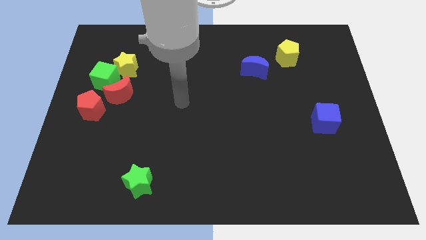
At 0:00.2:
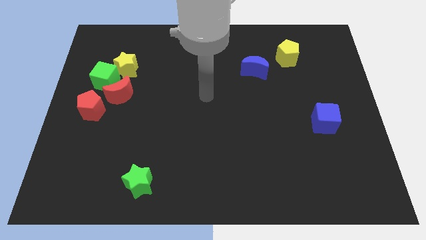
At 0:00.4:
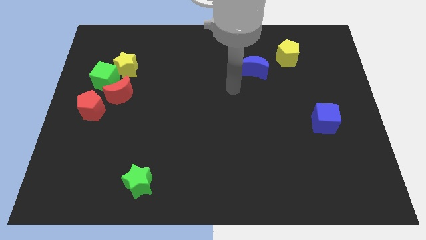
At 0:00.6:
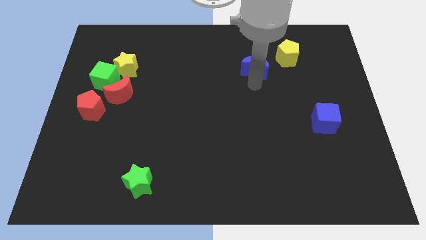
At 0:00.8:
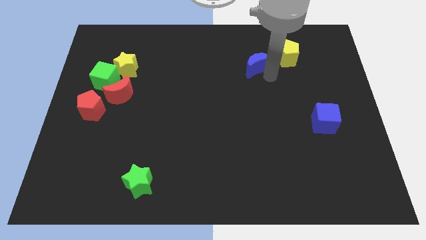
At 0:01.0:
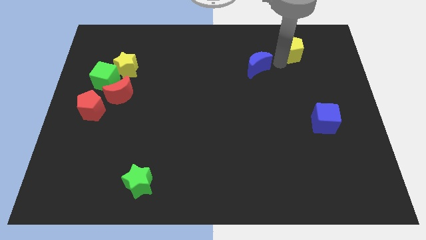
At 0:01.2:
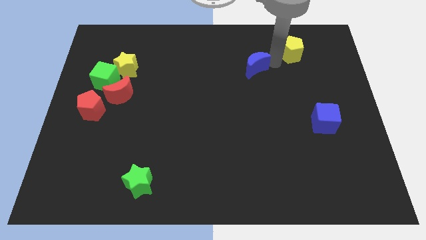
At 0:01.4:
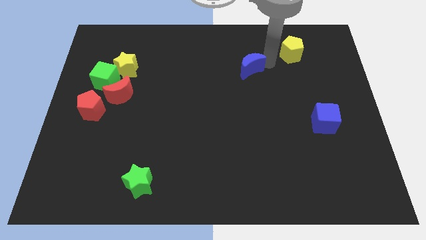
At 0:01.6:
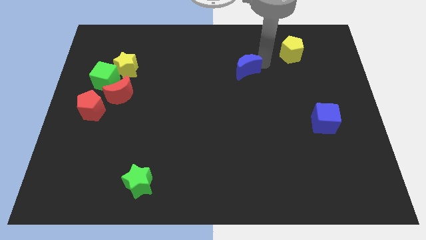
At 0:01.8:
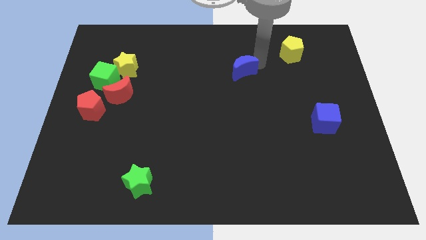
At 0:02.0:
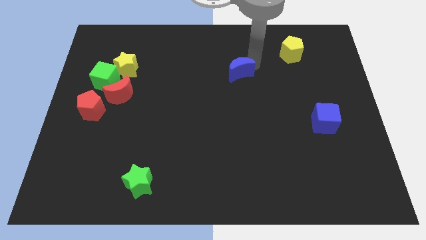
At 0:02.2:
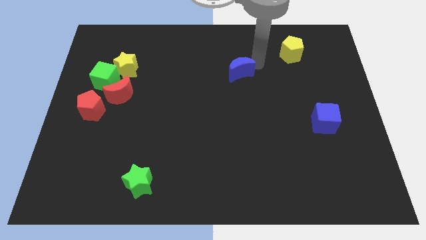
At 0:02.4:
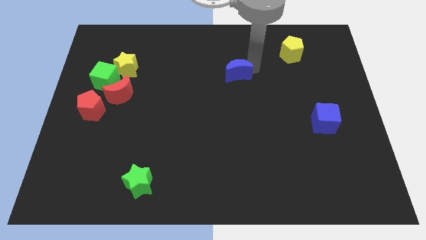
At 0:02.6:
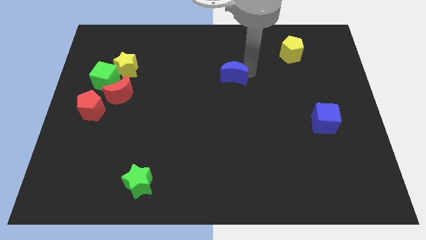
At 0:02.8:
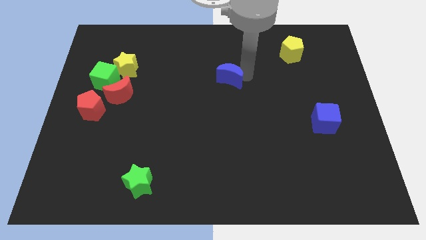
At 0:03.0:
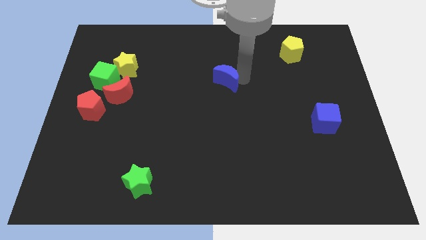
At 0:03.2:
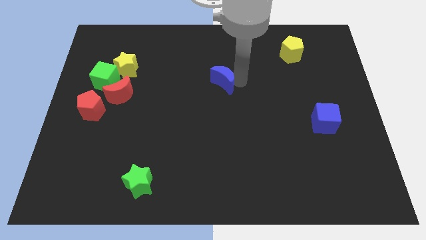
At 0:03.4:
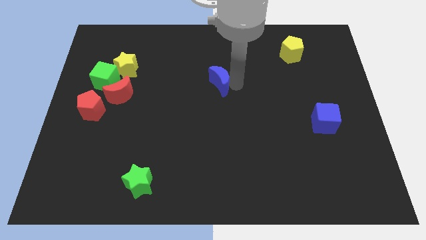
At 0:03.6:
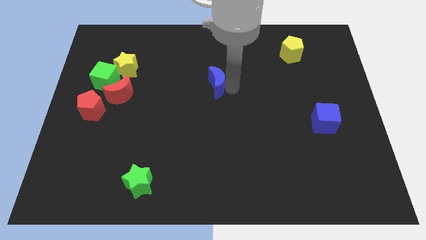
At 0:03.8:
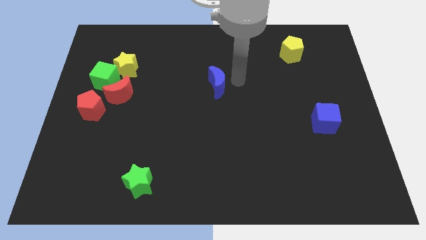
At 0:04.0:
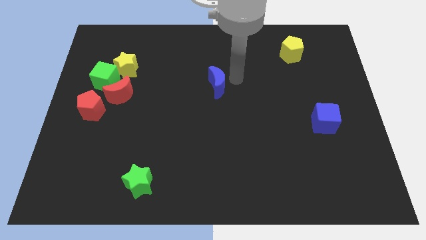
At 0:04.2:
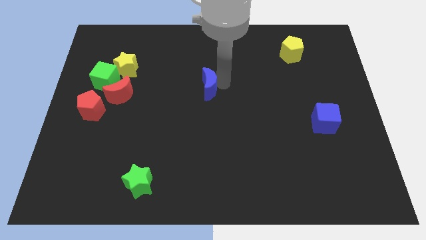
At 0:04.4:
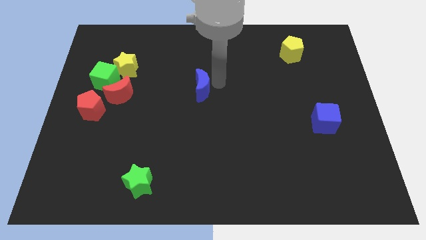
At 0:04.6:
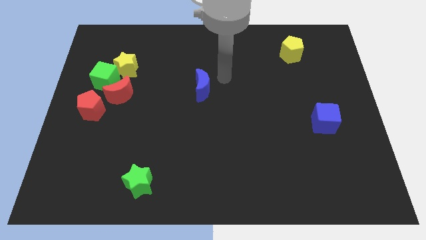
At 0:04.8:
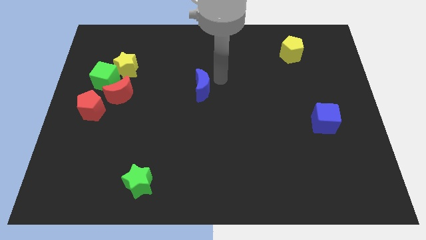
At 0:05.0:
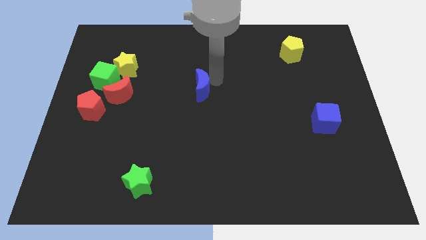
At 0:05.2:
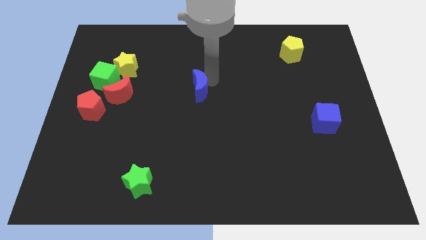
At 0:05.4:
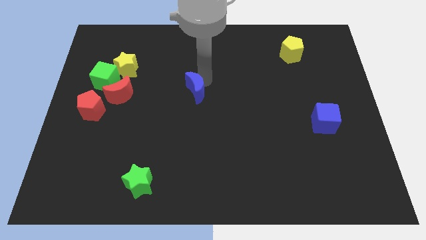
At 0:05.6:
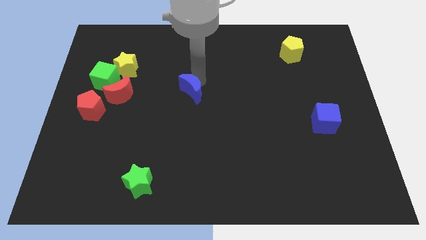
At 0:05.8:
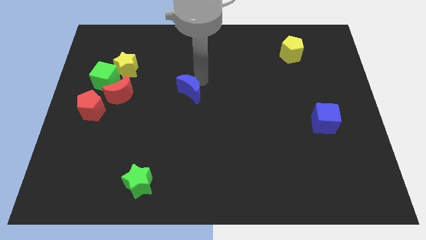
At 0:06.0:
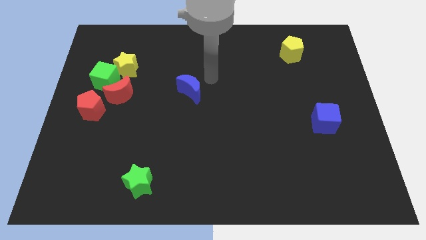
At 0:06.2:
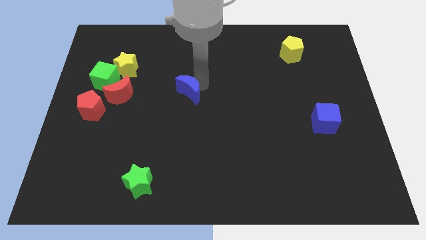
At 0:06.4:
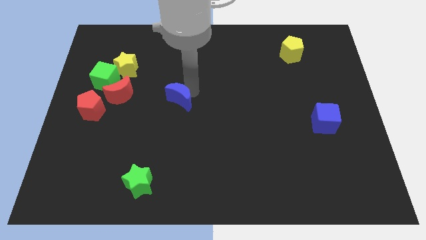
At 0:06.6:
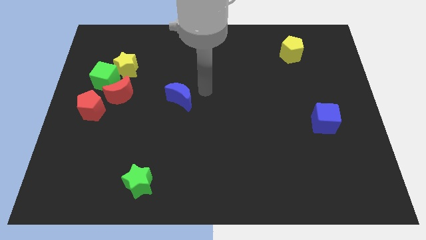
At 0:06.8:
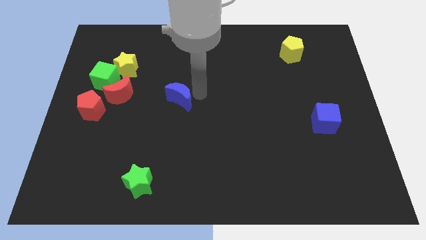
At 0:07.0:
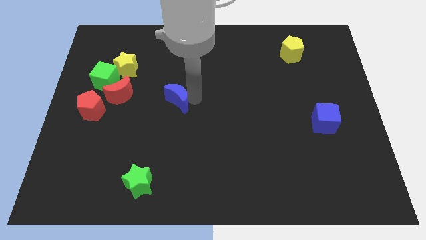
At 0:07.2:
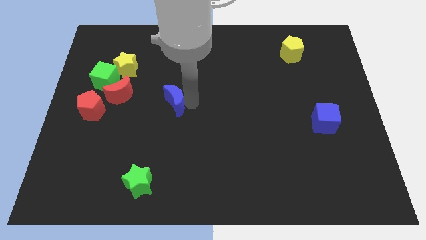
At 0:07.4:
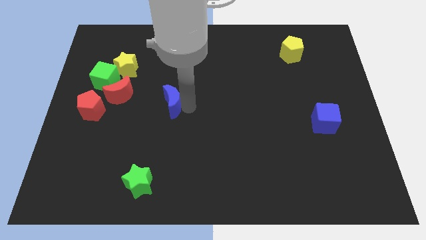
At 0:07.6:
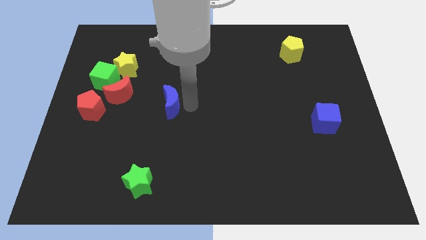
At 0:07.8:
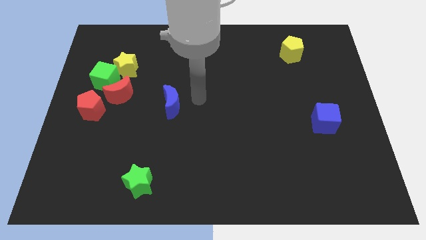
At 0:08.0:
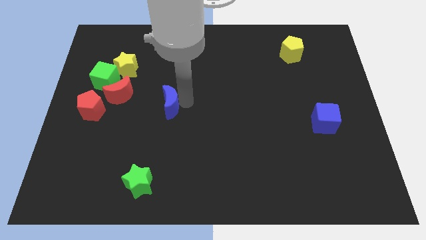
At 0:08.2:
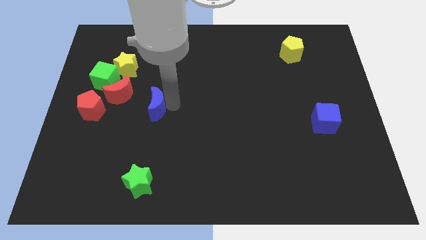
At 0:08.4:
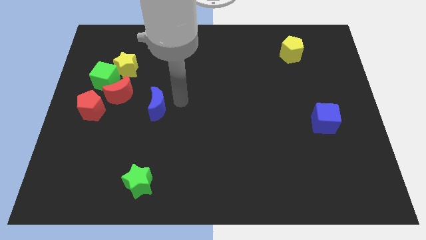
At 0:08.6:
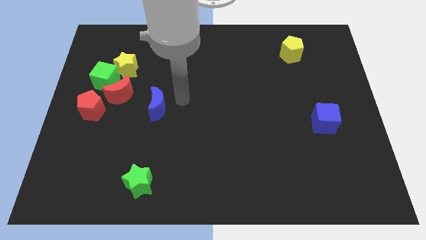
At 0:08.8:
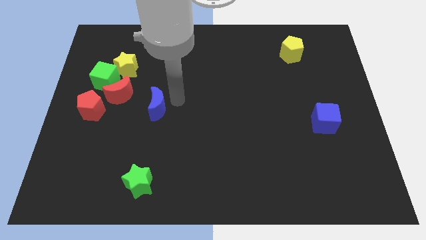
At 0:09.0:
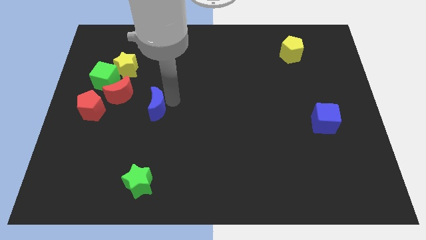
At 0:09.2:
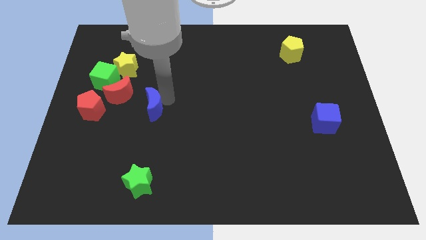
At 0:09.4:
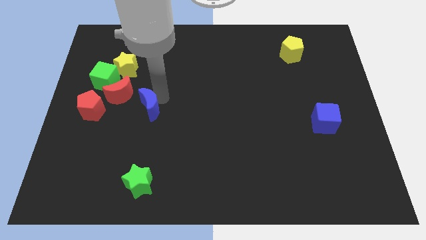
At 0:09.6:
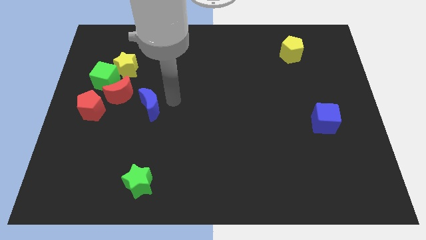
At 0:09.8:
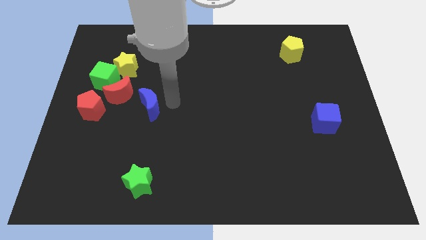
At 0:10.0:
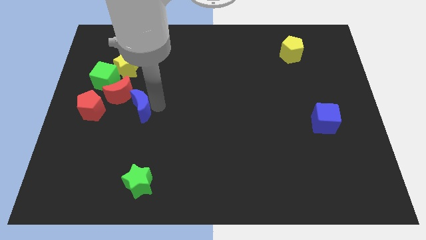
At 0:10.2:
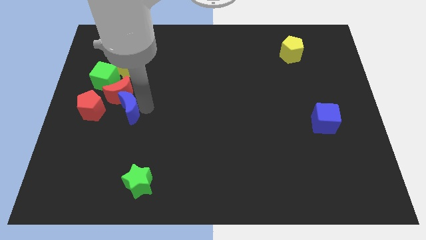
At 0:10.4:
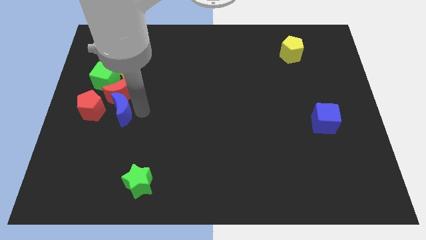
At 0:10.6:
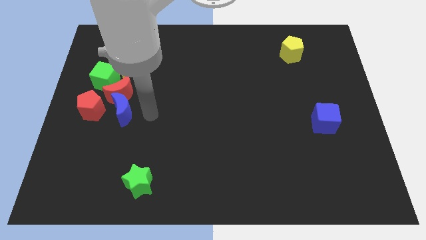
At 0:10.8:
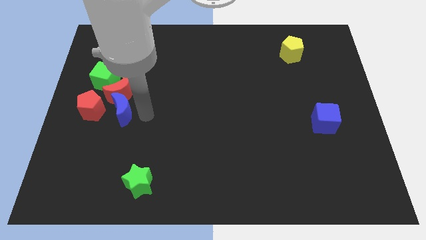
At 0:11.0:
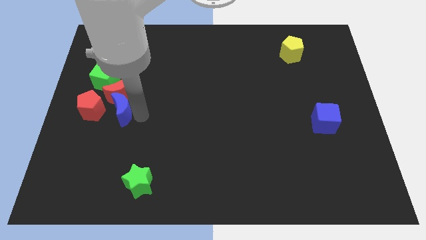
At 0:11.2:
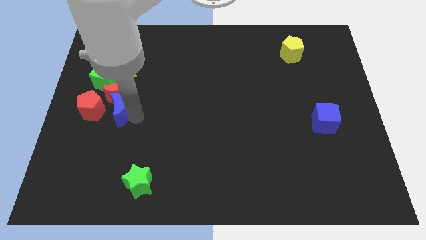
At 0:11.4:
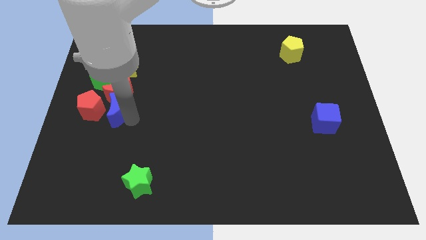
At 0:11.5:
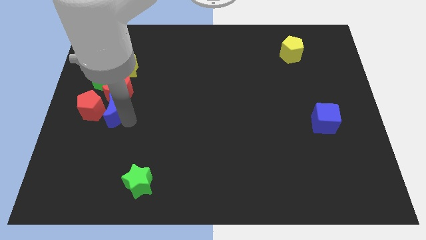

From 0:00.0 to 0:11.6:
slide the blue moon close to the red pentagon

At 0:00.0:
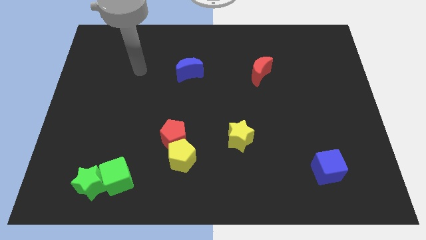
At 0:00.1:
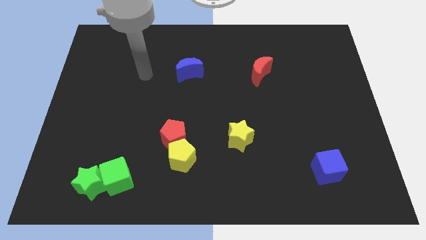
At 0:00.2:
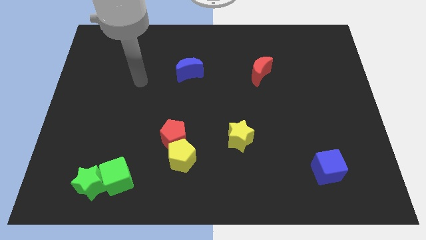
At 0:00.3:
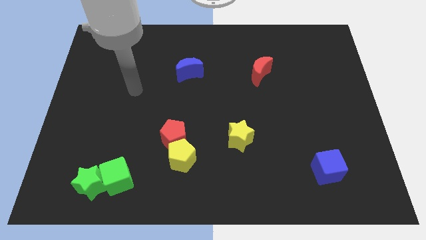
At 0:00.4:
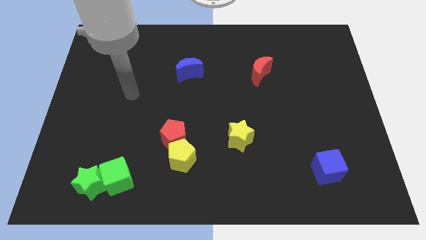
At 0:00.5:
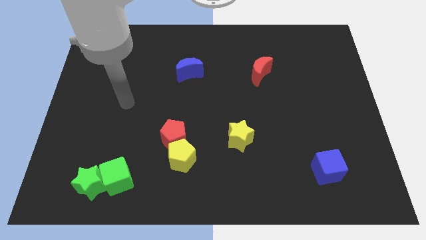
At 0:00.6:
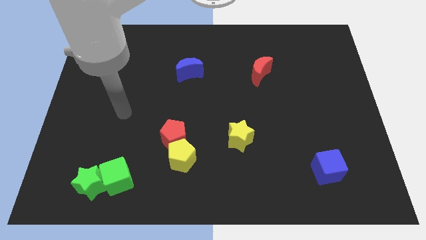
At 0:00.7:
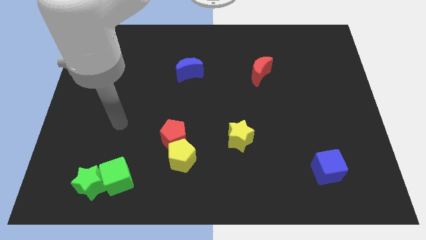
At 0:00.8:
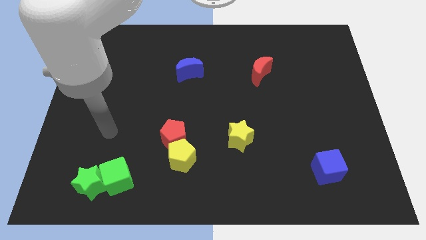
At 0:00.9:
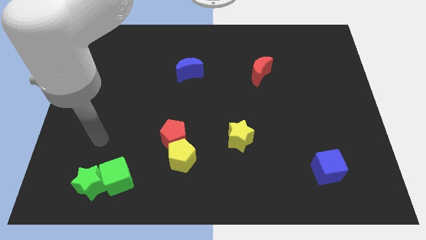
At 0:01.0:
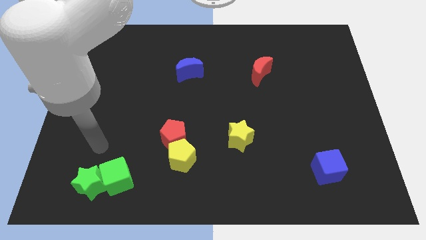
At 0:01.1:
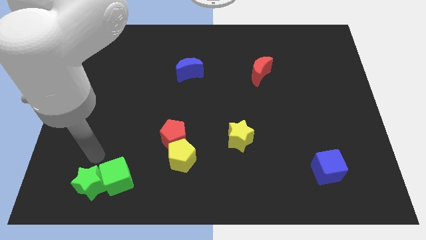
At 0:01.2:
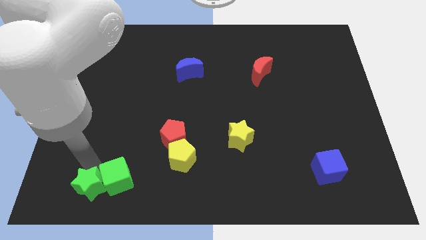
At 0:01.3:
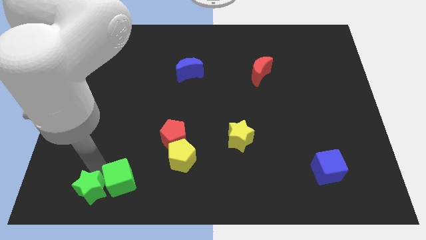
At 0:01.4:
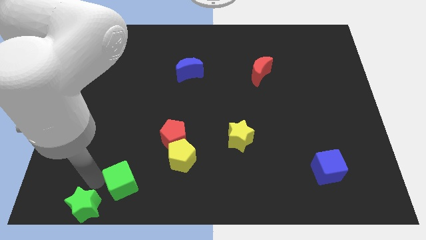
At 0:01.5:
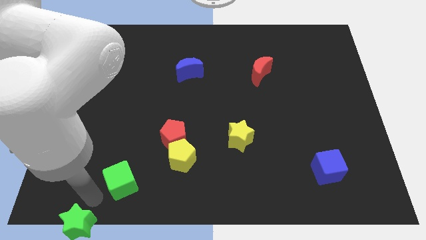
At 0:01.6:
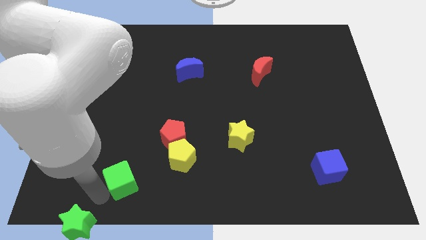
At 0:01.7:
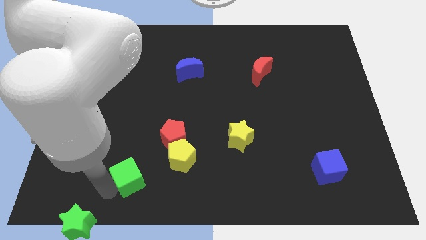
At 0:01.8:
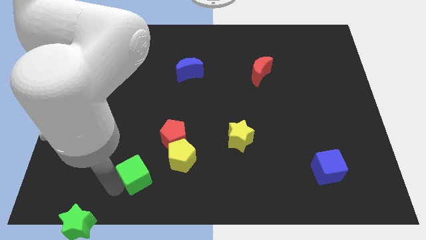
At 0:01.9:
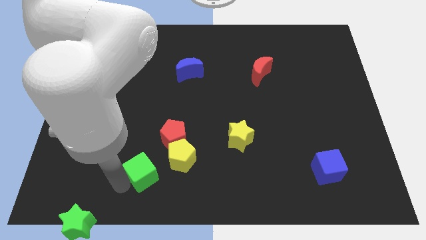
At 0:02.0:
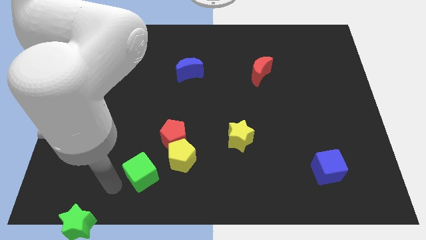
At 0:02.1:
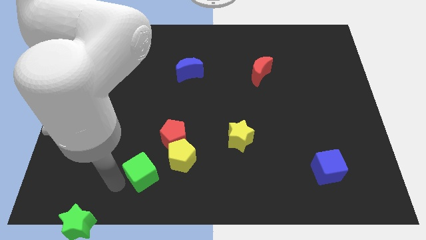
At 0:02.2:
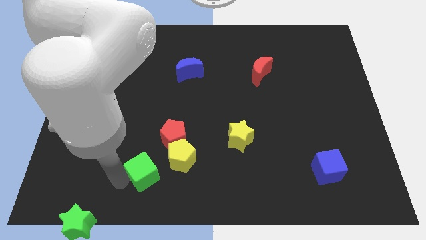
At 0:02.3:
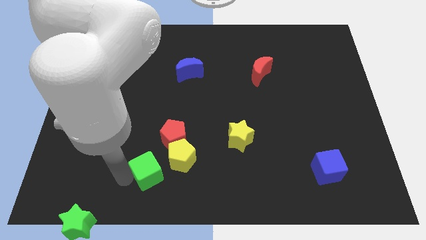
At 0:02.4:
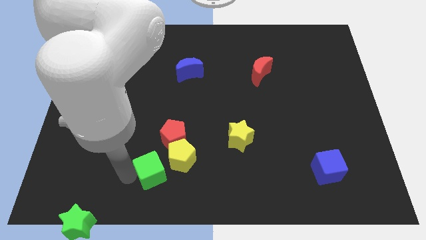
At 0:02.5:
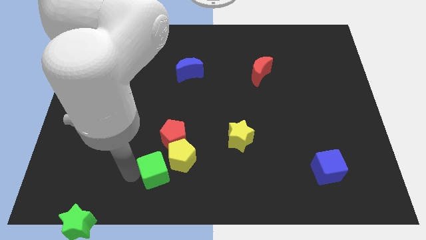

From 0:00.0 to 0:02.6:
put the green cube to the yellow pentagon
